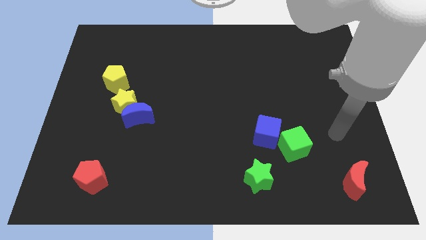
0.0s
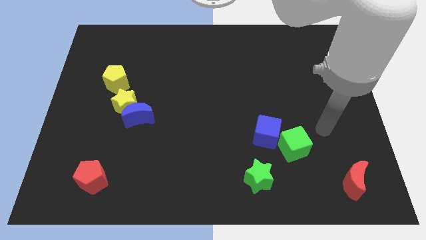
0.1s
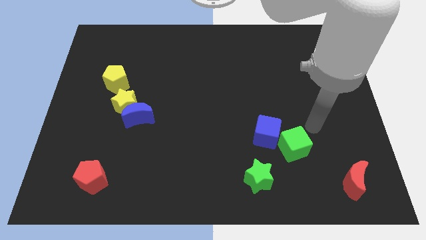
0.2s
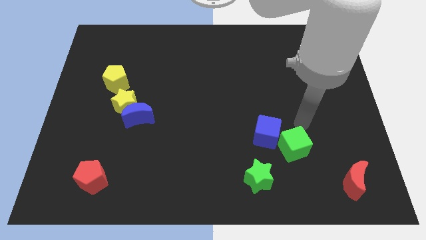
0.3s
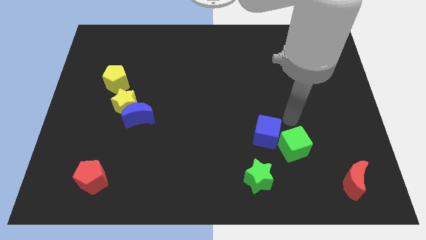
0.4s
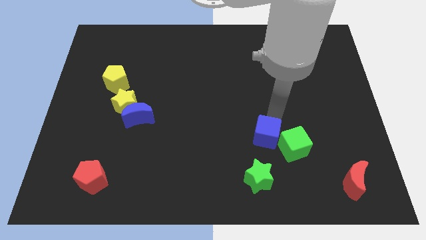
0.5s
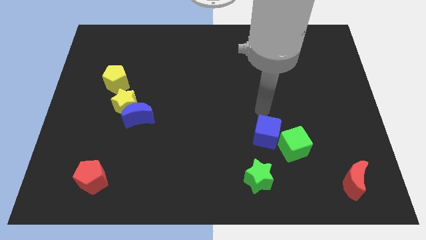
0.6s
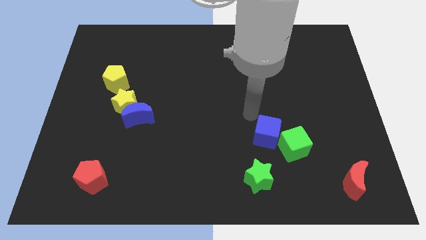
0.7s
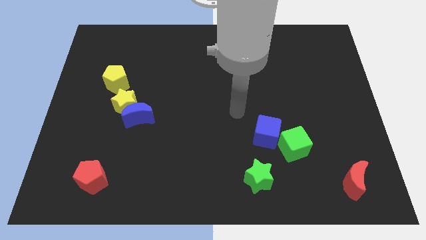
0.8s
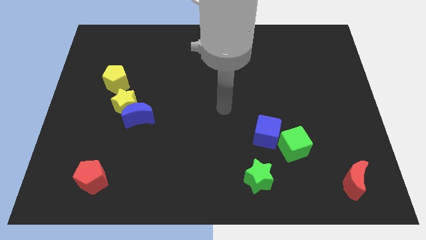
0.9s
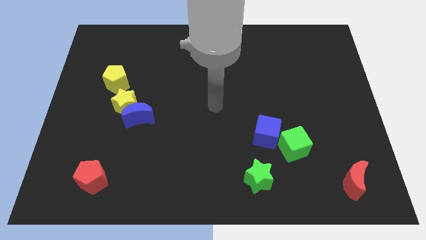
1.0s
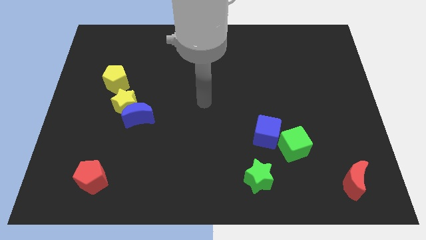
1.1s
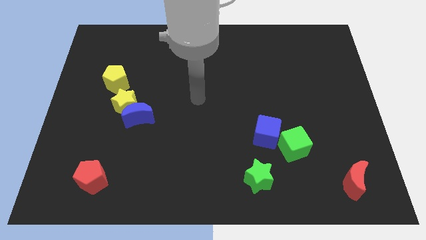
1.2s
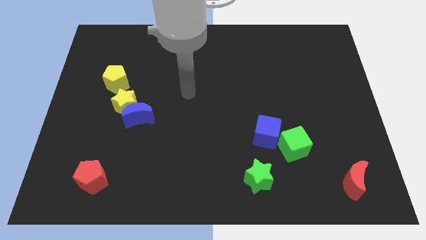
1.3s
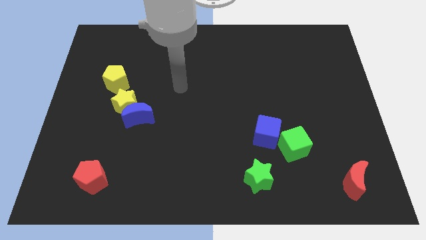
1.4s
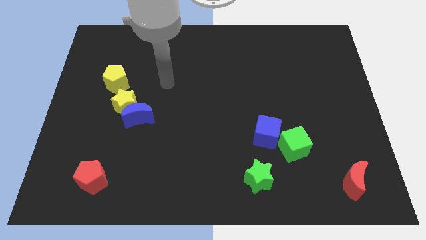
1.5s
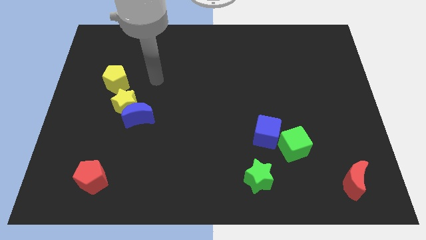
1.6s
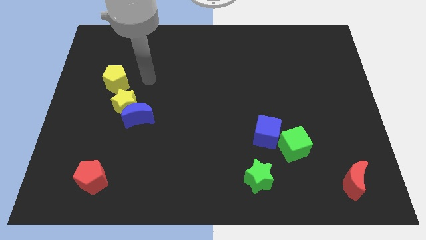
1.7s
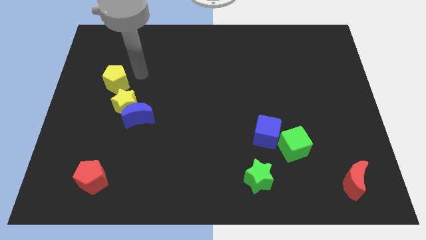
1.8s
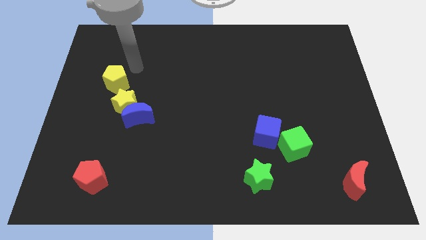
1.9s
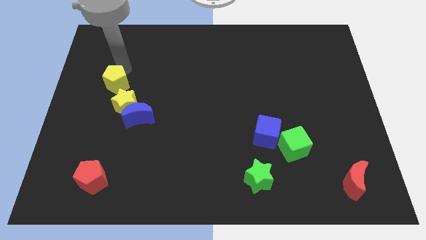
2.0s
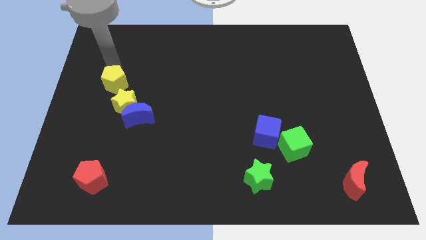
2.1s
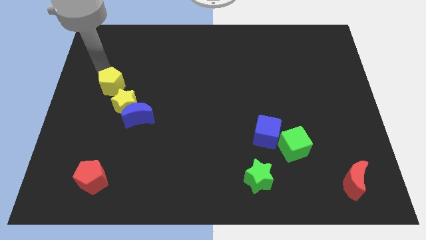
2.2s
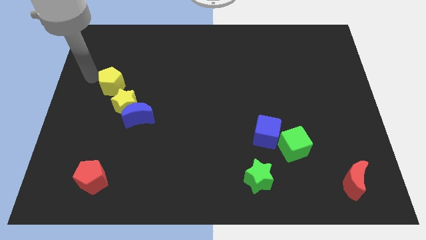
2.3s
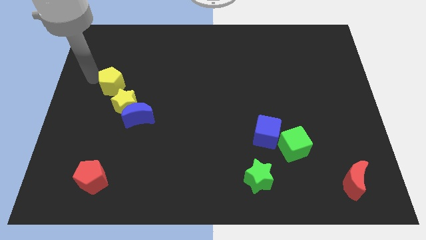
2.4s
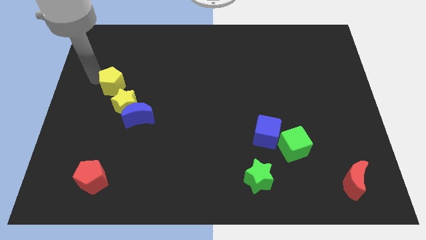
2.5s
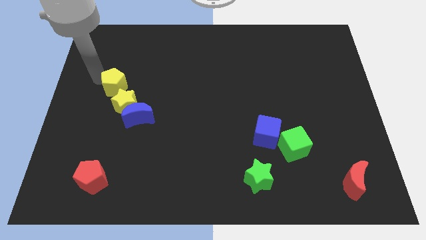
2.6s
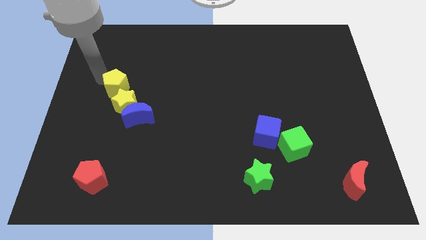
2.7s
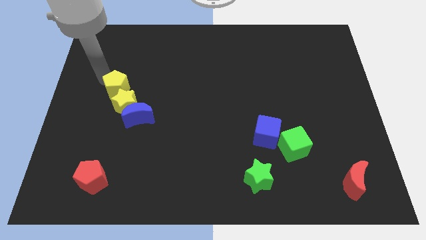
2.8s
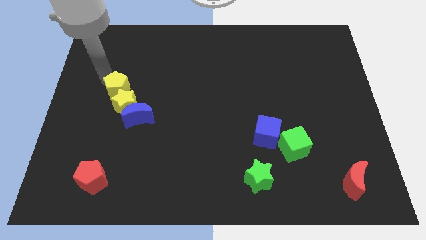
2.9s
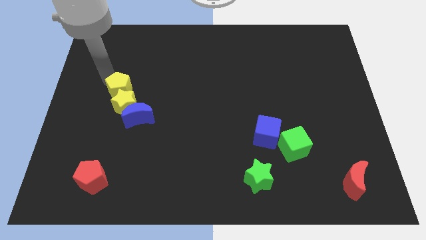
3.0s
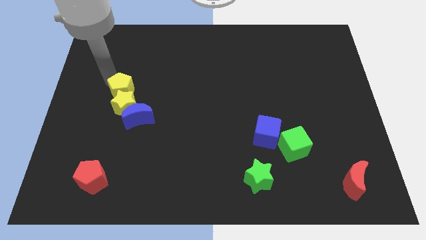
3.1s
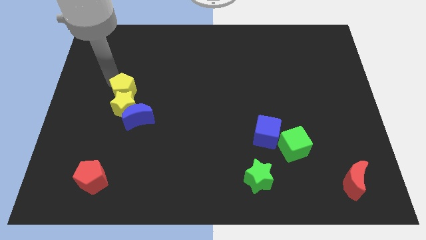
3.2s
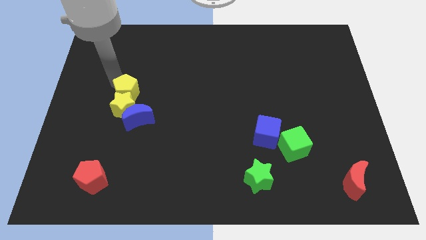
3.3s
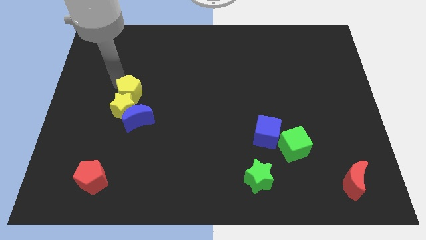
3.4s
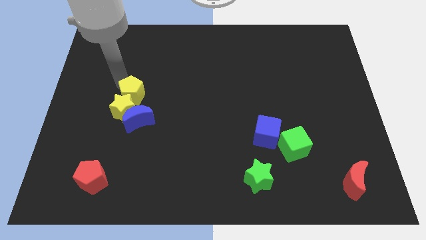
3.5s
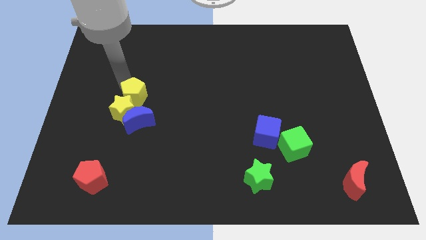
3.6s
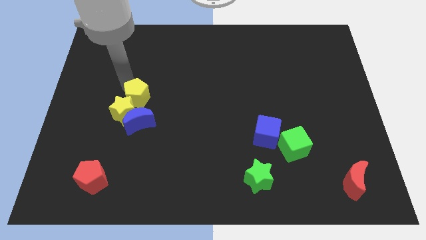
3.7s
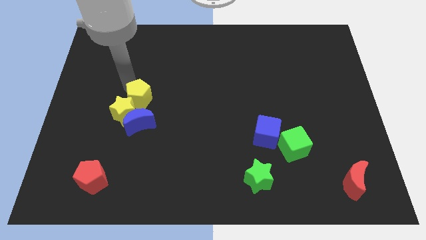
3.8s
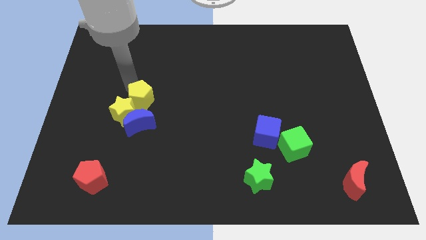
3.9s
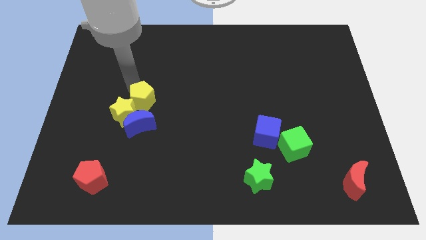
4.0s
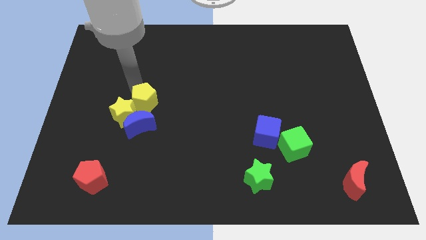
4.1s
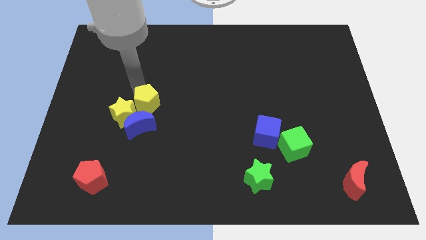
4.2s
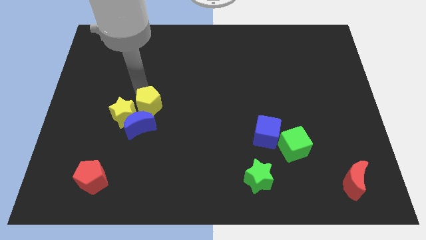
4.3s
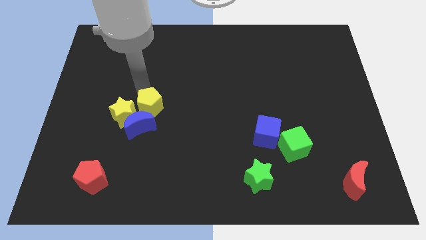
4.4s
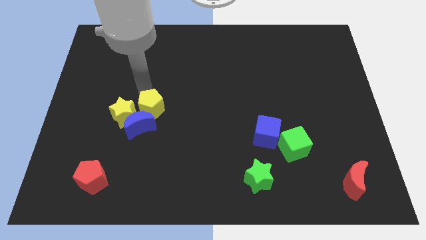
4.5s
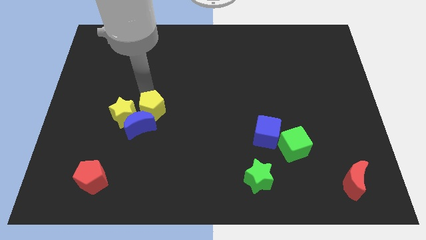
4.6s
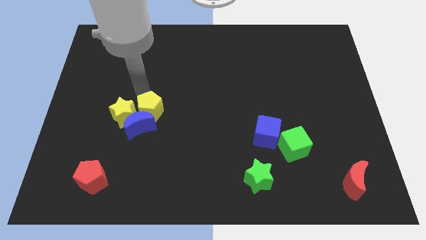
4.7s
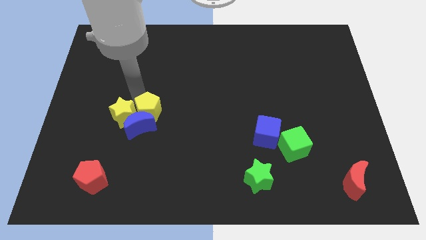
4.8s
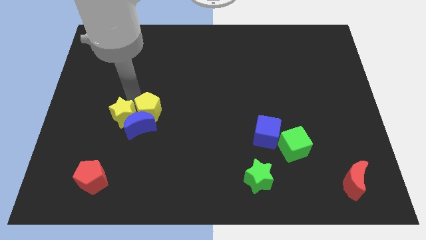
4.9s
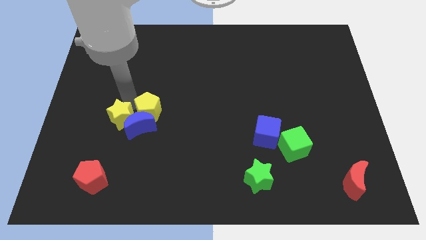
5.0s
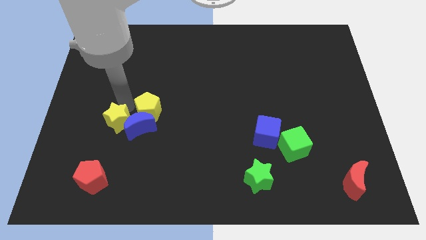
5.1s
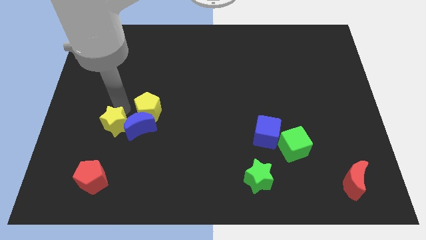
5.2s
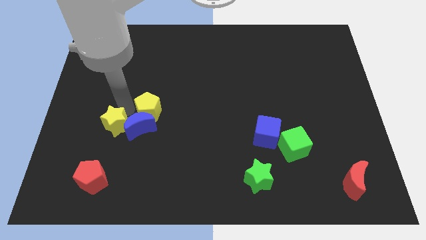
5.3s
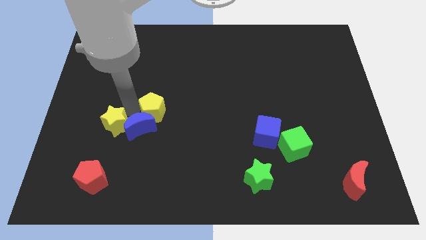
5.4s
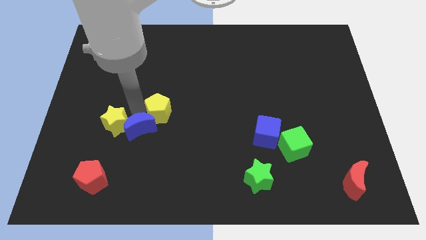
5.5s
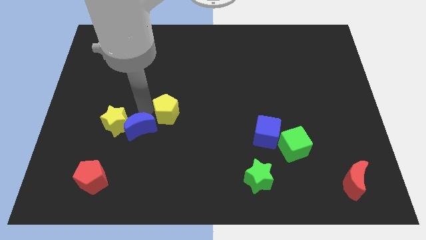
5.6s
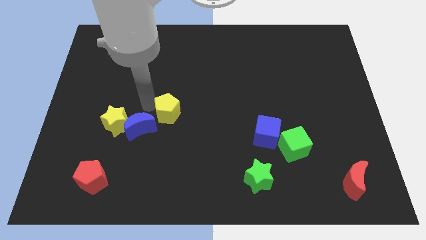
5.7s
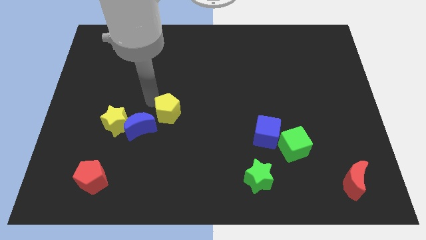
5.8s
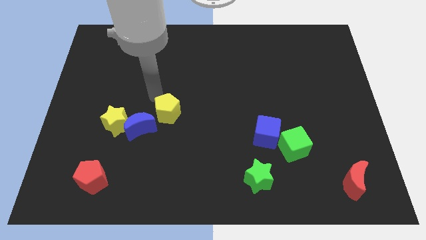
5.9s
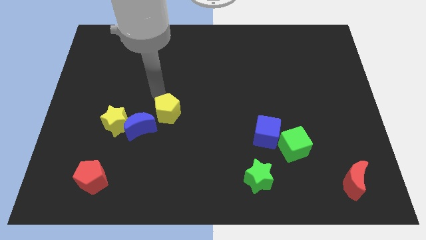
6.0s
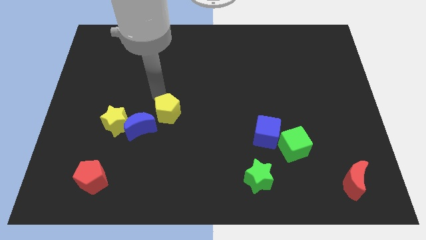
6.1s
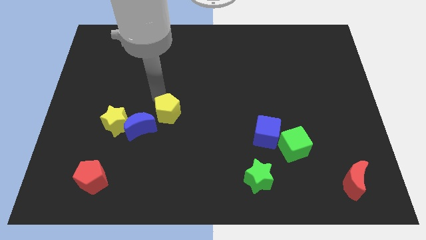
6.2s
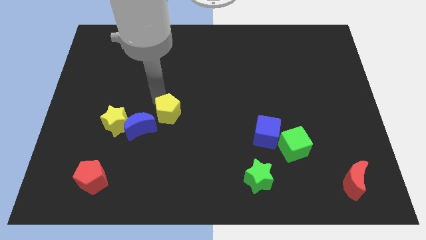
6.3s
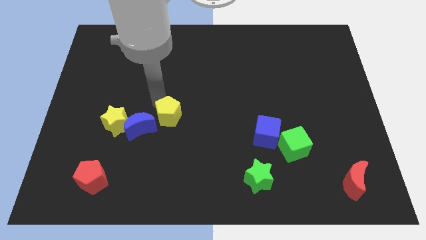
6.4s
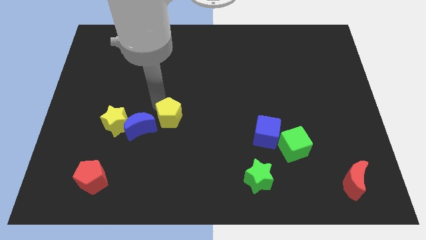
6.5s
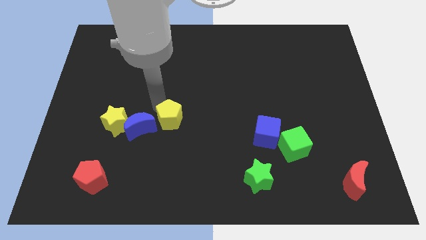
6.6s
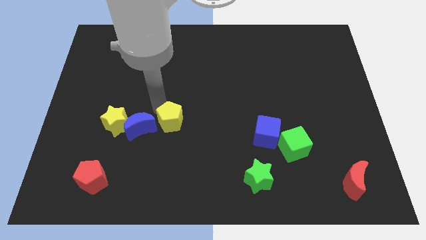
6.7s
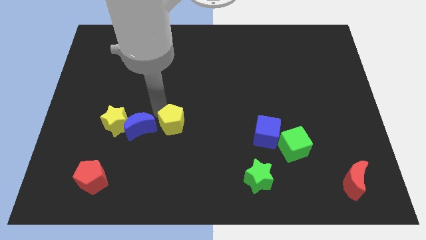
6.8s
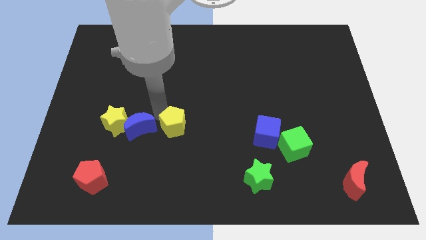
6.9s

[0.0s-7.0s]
slide the yellow pentagon downwards and right

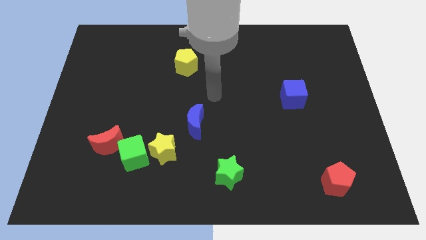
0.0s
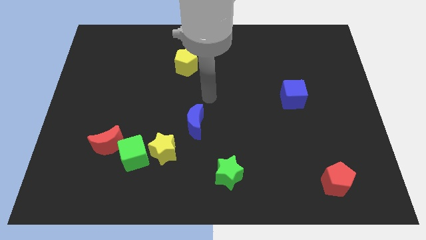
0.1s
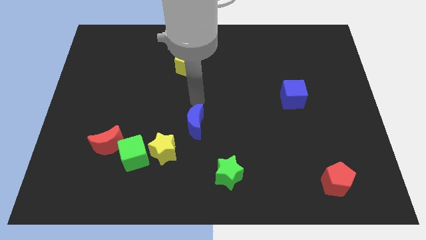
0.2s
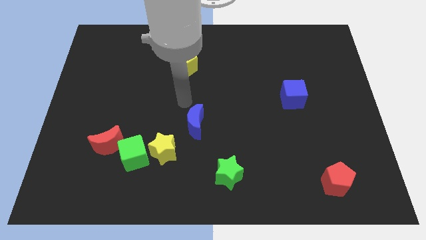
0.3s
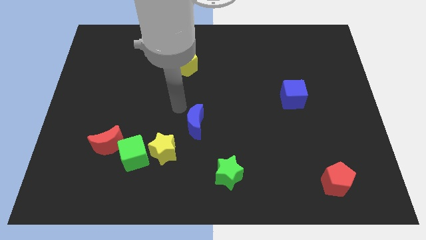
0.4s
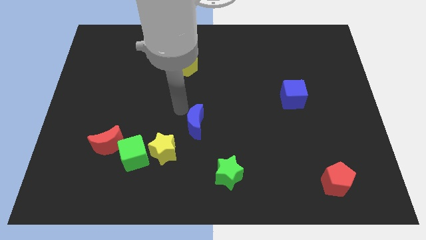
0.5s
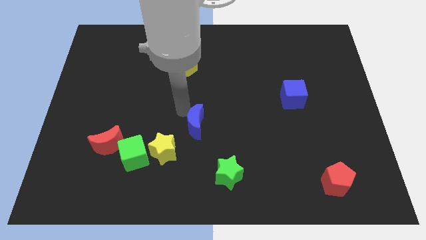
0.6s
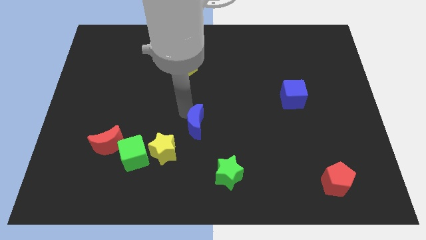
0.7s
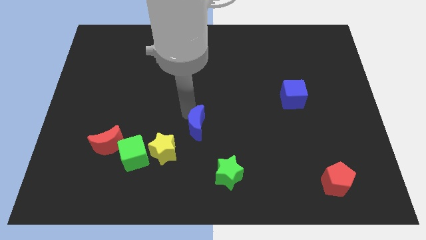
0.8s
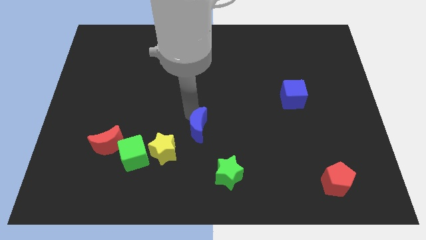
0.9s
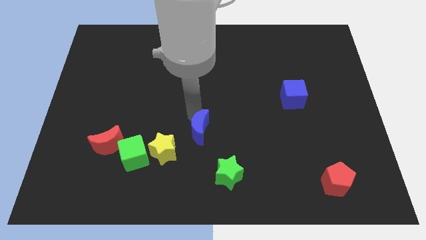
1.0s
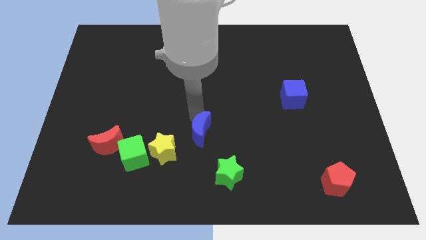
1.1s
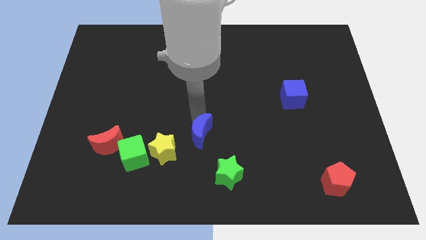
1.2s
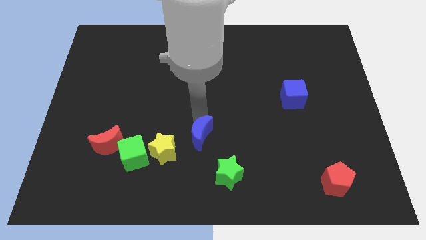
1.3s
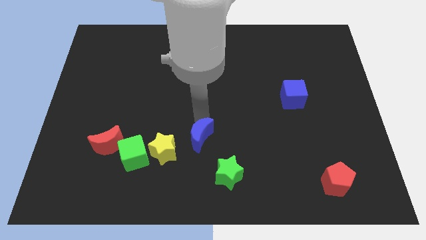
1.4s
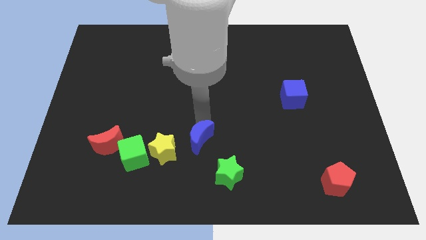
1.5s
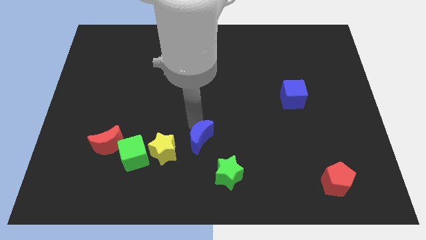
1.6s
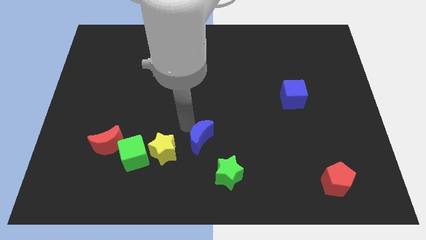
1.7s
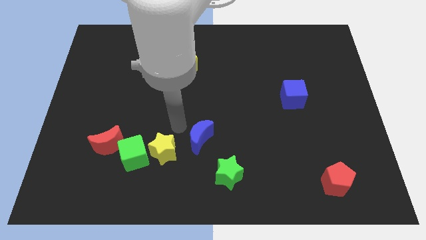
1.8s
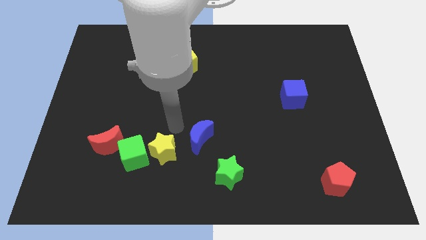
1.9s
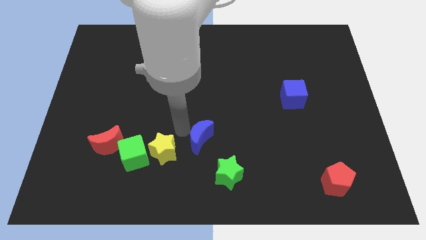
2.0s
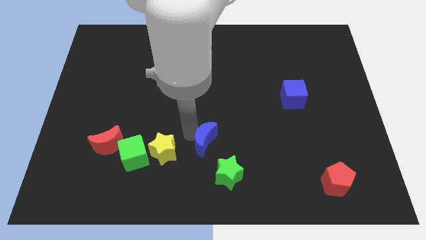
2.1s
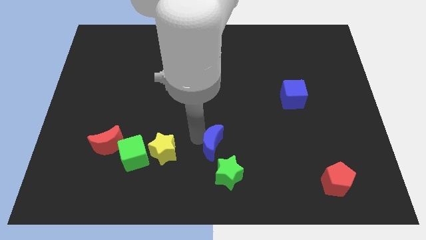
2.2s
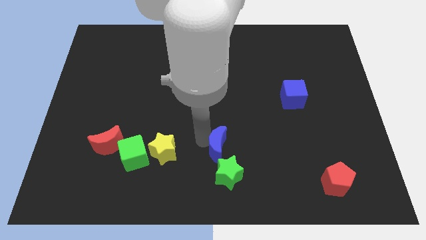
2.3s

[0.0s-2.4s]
slide the blue moon down and to the right diagonally a little bit
